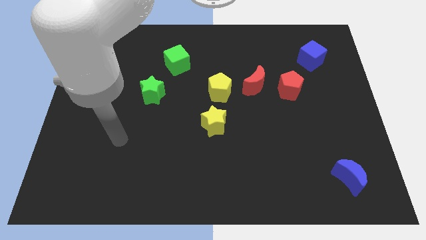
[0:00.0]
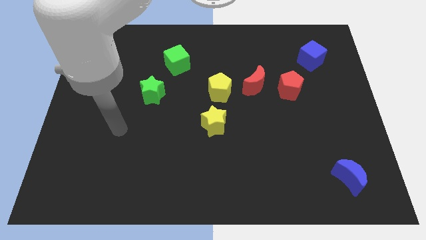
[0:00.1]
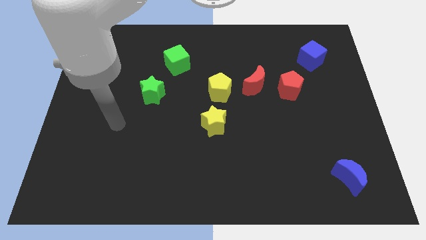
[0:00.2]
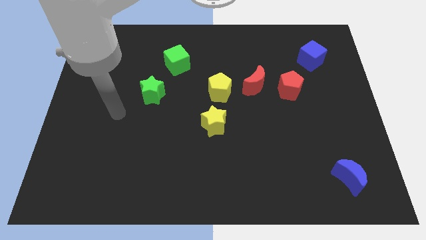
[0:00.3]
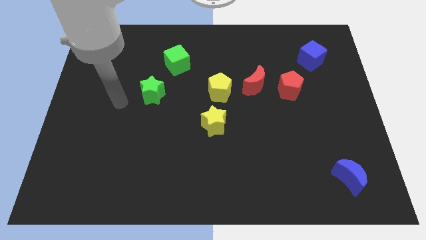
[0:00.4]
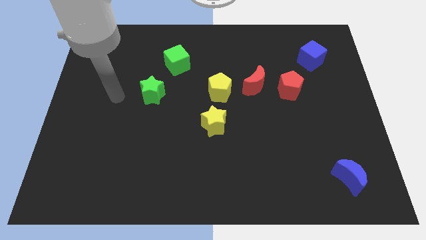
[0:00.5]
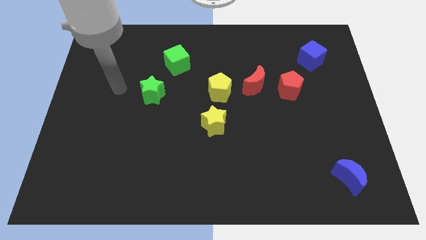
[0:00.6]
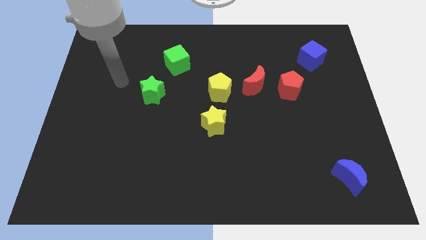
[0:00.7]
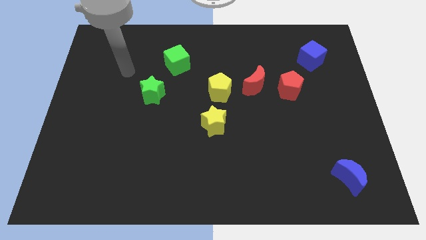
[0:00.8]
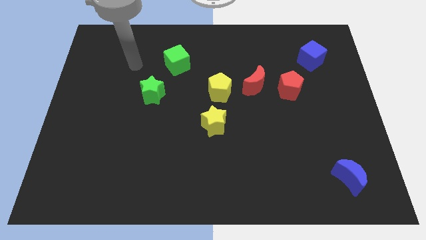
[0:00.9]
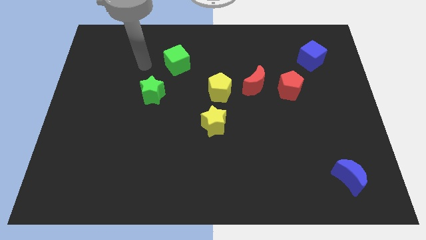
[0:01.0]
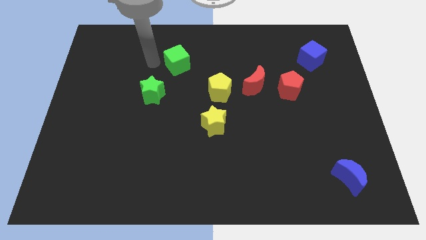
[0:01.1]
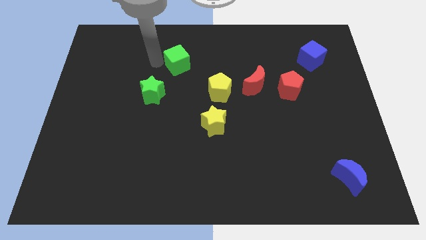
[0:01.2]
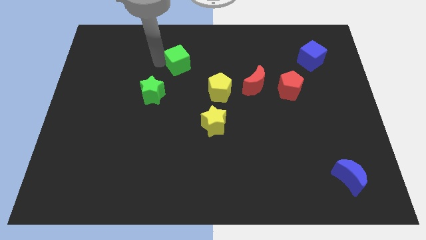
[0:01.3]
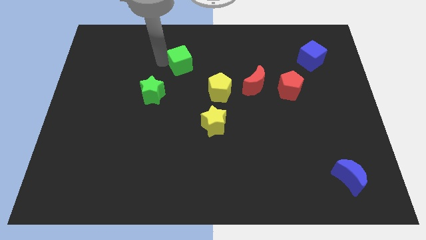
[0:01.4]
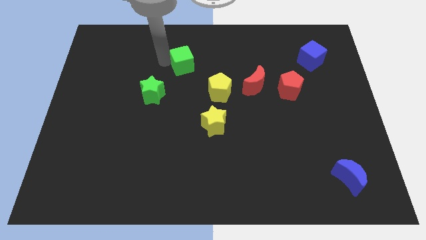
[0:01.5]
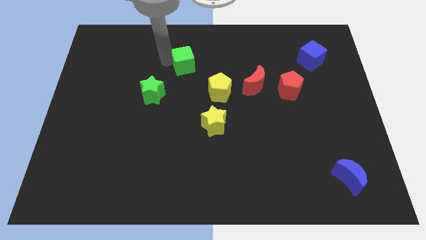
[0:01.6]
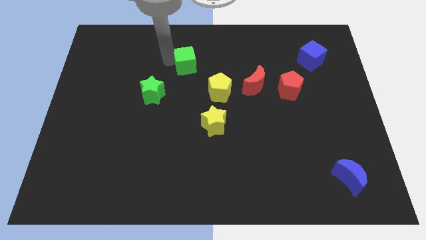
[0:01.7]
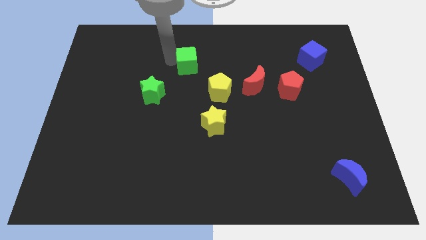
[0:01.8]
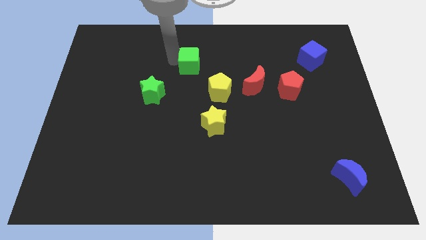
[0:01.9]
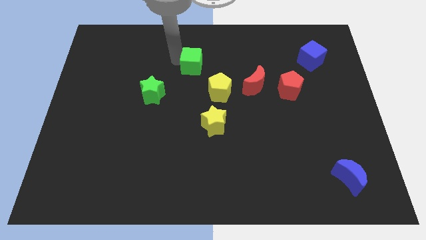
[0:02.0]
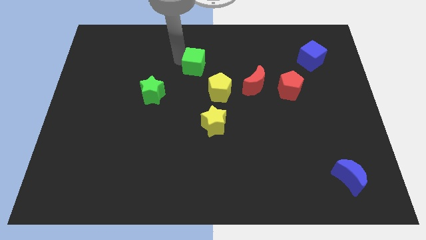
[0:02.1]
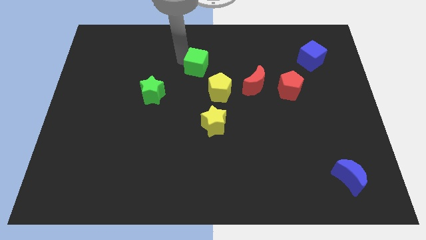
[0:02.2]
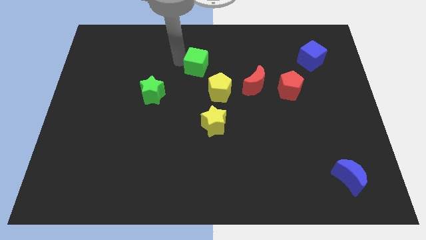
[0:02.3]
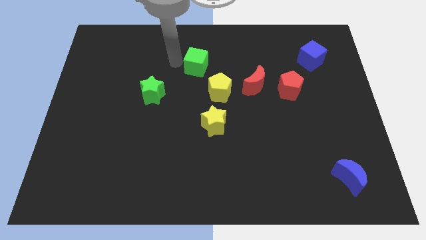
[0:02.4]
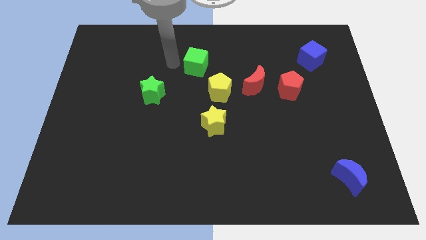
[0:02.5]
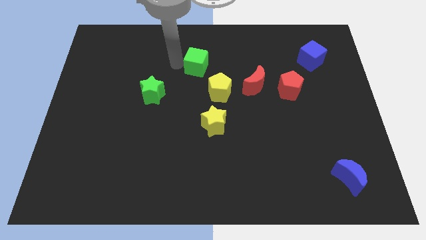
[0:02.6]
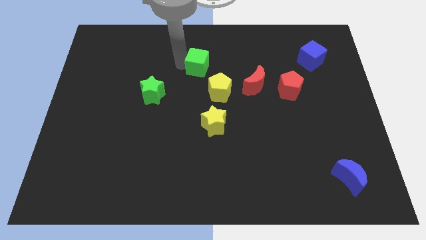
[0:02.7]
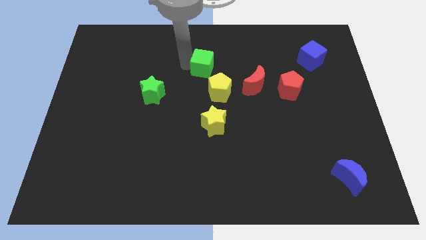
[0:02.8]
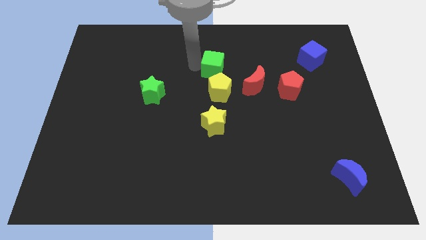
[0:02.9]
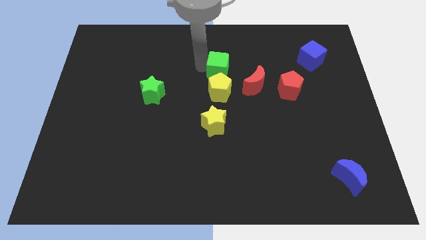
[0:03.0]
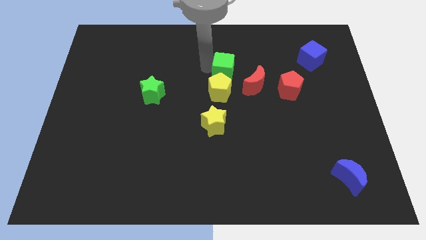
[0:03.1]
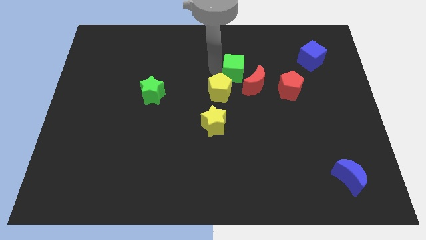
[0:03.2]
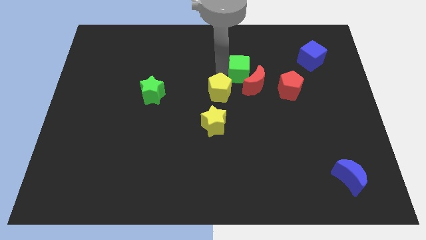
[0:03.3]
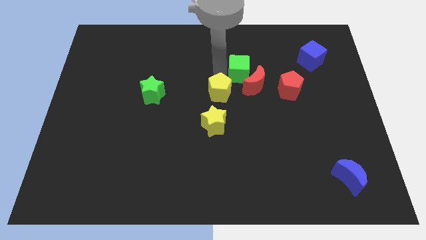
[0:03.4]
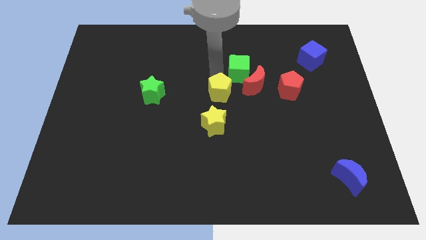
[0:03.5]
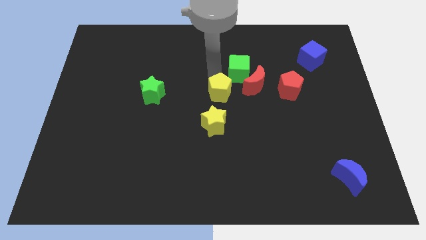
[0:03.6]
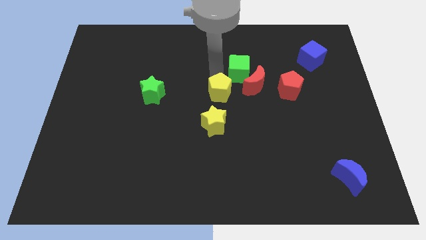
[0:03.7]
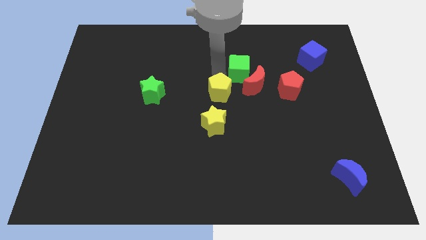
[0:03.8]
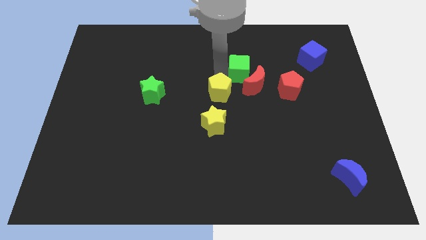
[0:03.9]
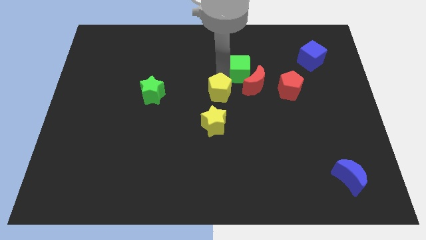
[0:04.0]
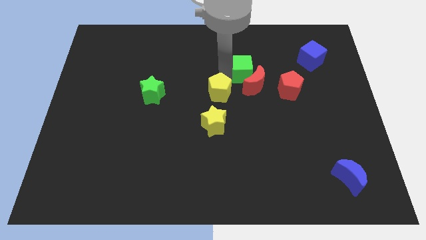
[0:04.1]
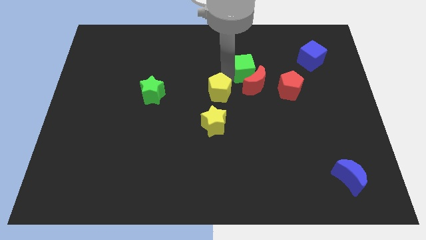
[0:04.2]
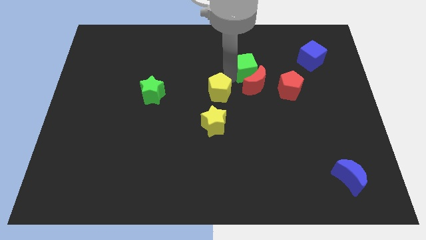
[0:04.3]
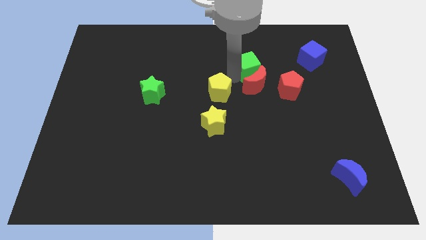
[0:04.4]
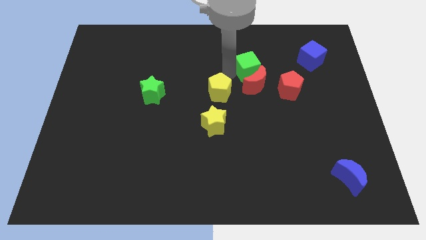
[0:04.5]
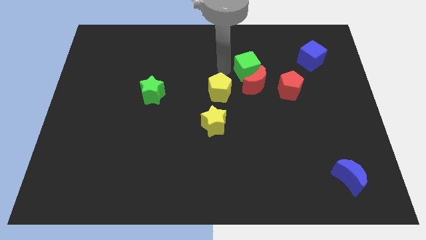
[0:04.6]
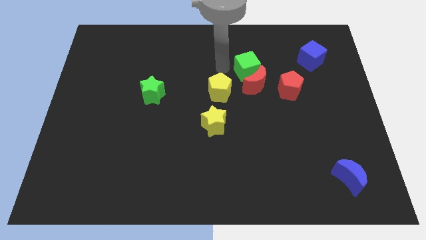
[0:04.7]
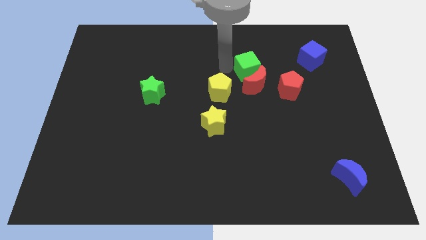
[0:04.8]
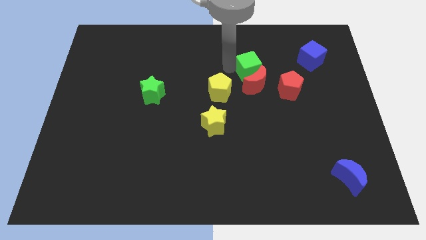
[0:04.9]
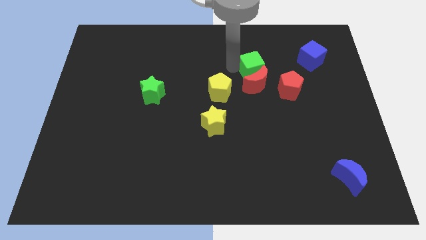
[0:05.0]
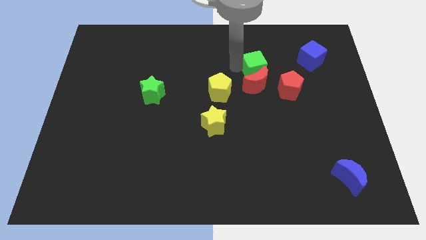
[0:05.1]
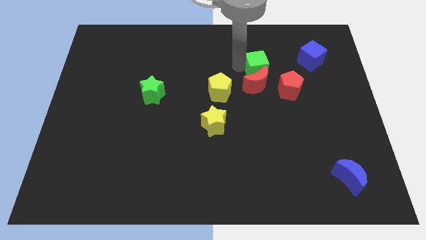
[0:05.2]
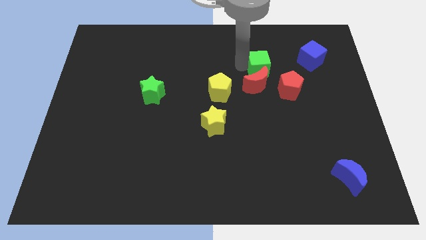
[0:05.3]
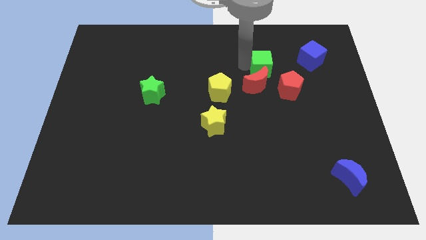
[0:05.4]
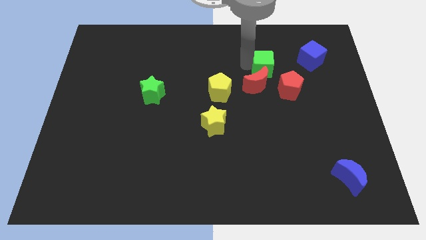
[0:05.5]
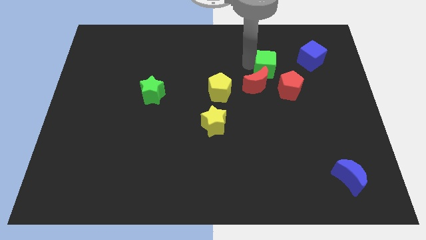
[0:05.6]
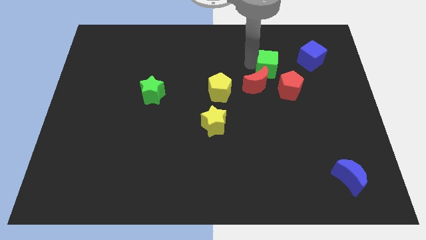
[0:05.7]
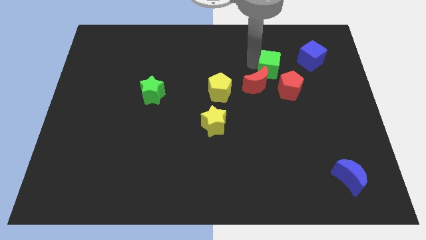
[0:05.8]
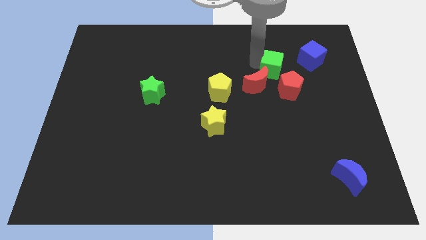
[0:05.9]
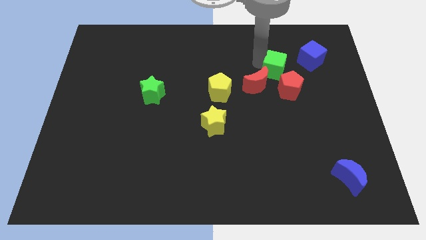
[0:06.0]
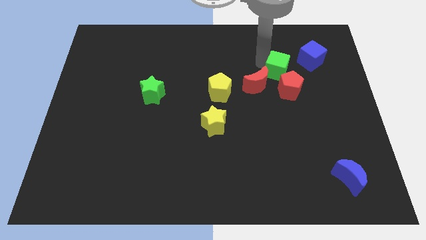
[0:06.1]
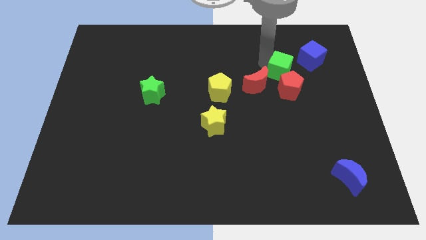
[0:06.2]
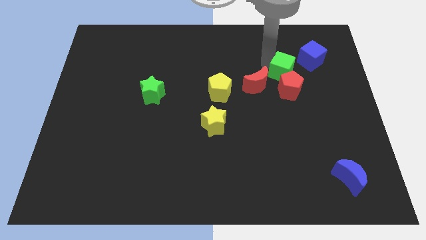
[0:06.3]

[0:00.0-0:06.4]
move the green cube right of the red moon

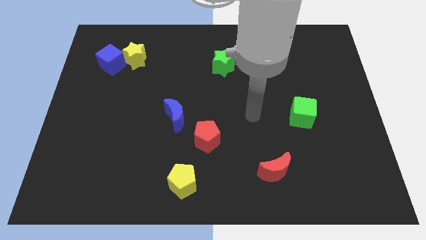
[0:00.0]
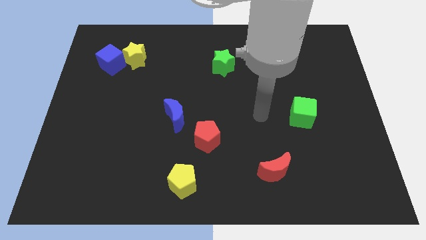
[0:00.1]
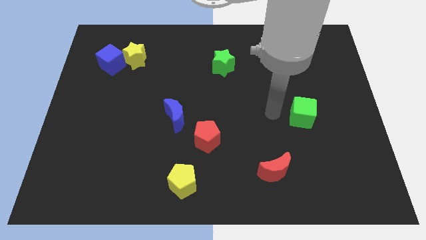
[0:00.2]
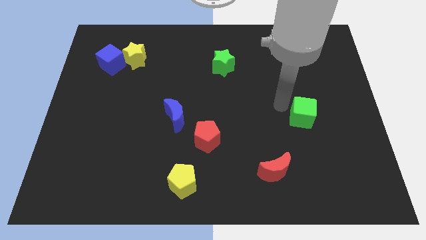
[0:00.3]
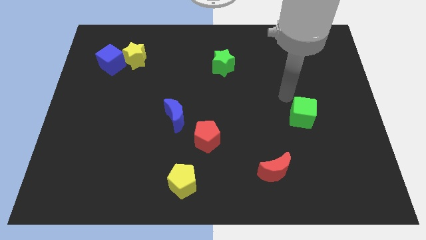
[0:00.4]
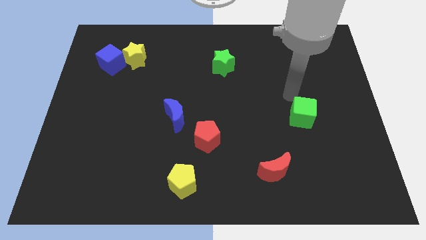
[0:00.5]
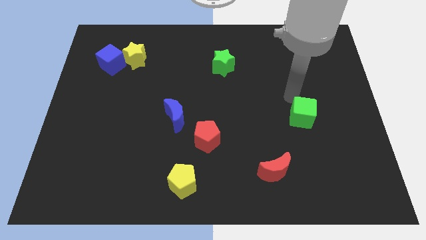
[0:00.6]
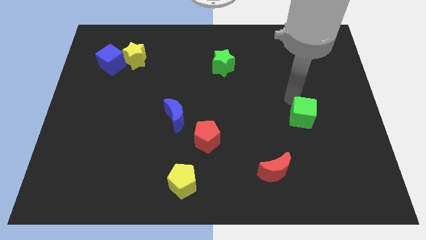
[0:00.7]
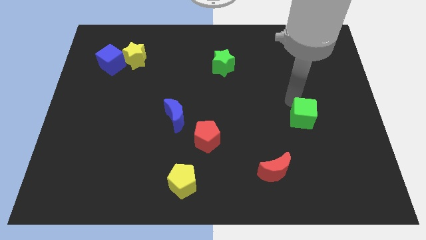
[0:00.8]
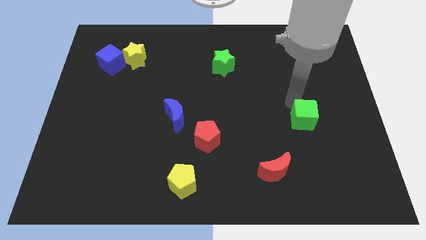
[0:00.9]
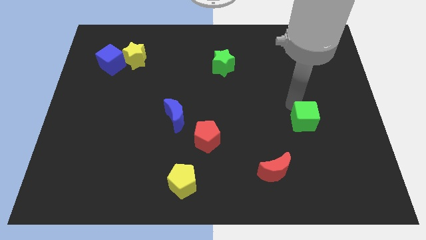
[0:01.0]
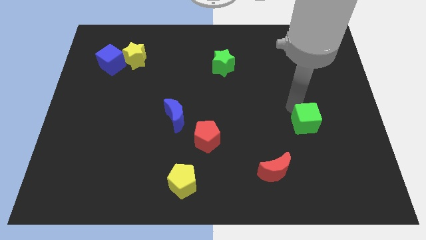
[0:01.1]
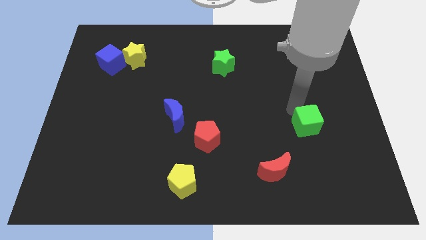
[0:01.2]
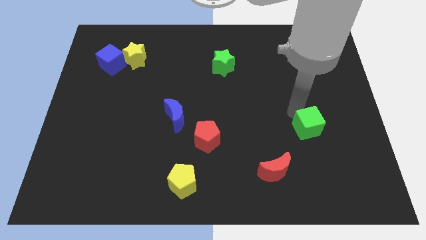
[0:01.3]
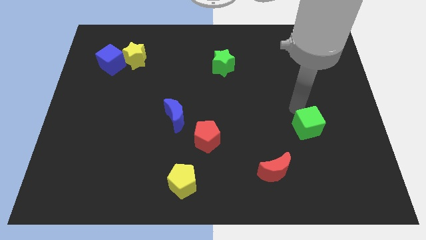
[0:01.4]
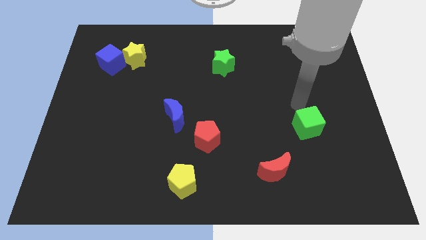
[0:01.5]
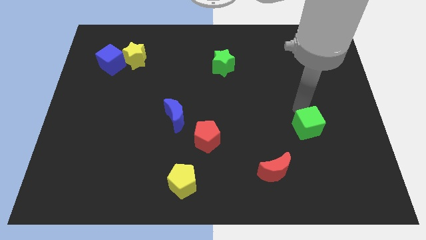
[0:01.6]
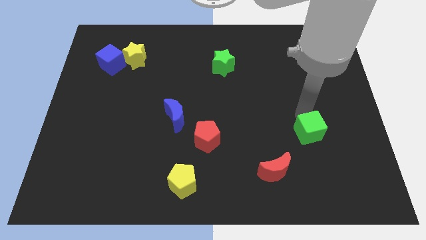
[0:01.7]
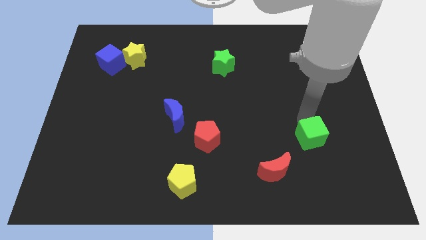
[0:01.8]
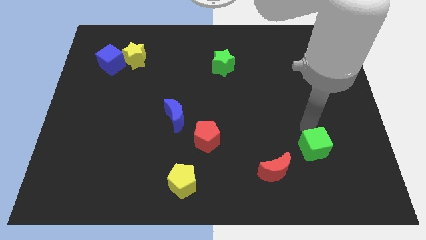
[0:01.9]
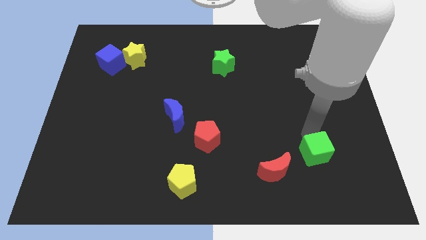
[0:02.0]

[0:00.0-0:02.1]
push the green cube right of the red moon
